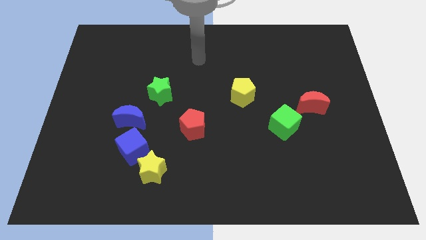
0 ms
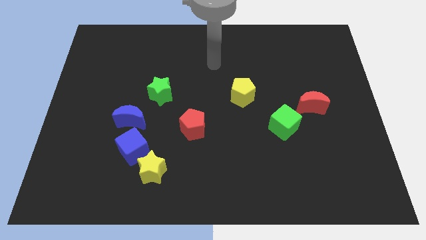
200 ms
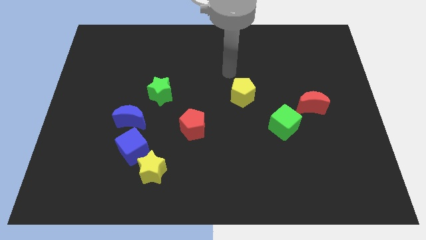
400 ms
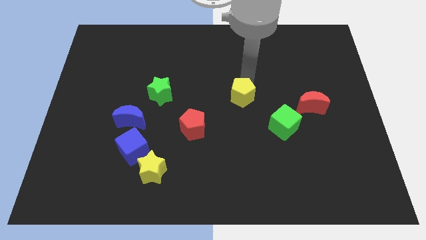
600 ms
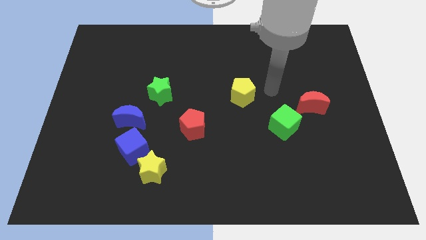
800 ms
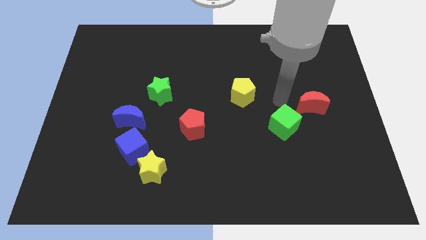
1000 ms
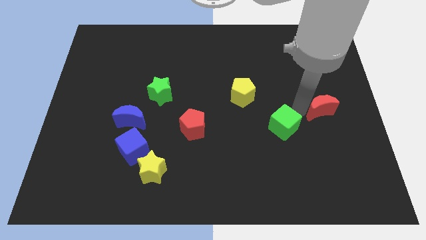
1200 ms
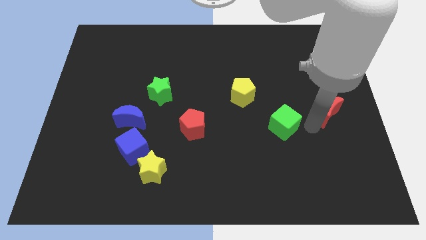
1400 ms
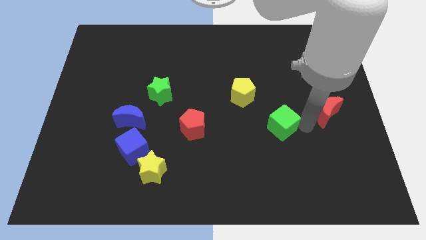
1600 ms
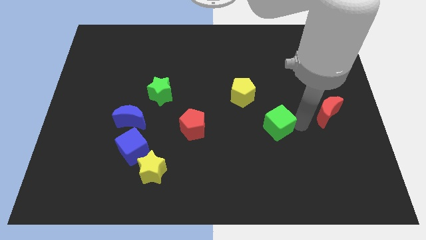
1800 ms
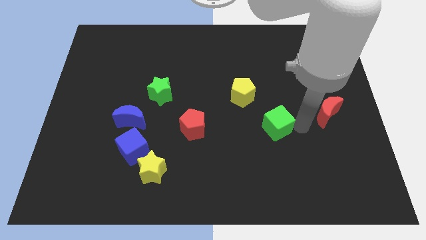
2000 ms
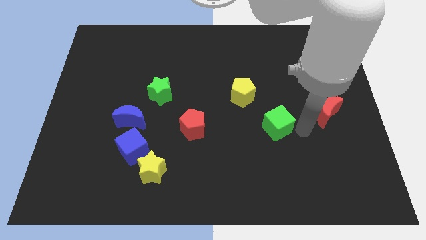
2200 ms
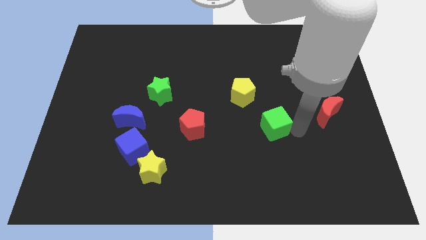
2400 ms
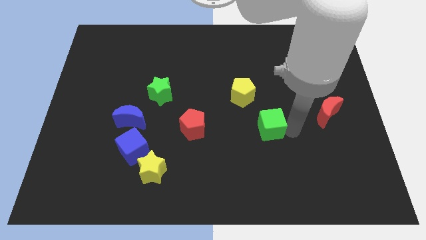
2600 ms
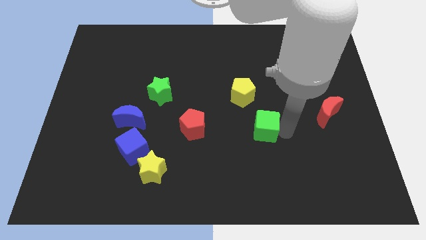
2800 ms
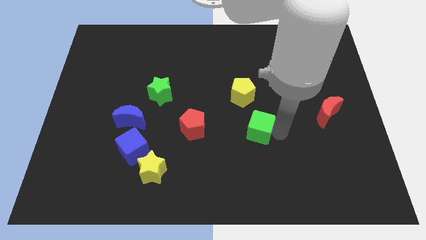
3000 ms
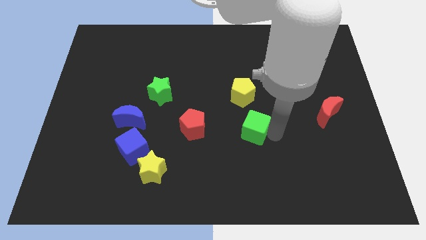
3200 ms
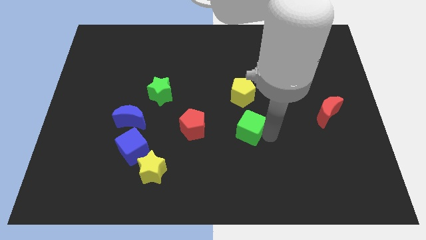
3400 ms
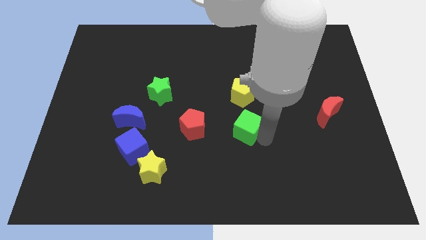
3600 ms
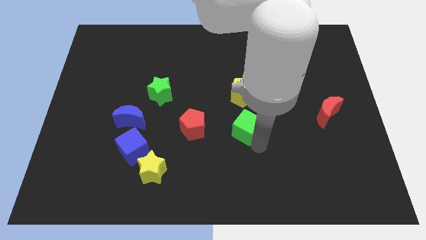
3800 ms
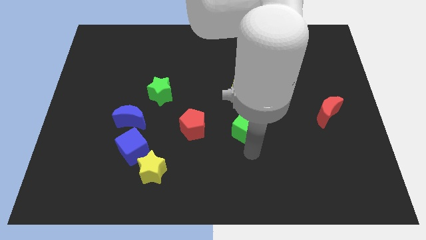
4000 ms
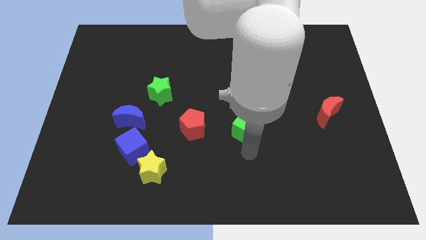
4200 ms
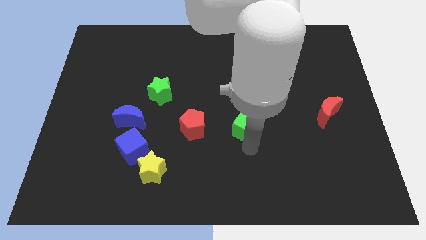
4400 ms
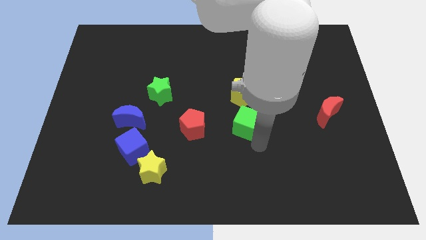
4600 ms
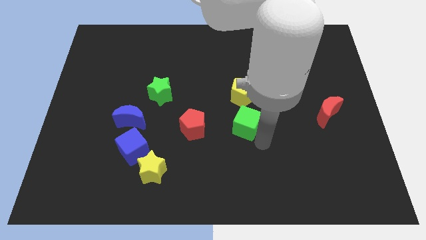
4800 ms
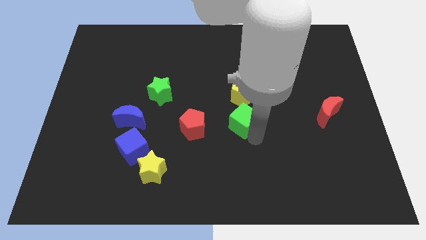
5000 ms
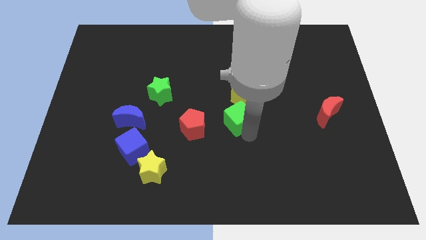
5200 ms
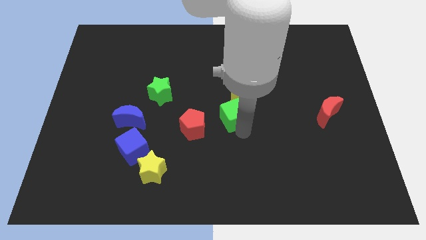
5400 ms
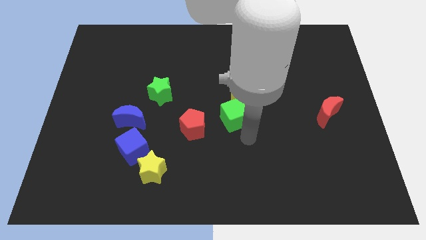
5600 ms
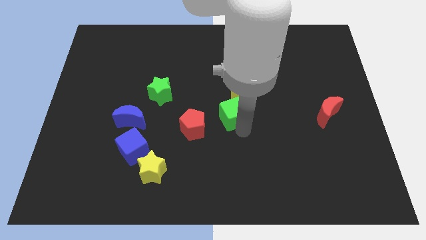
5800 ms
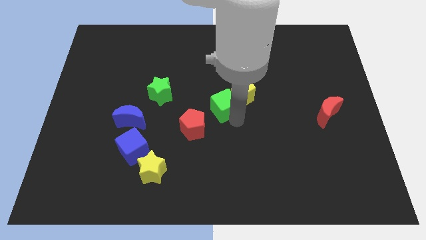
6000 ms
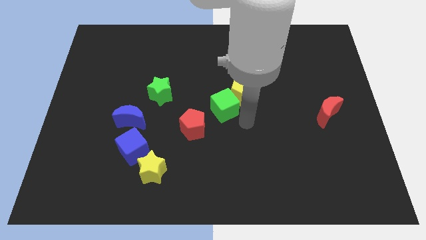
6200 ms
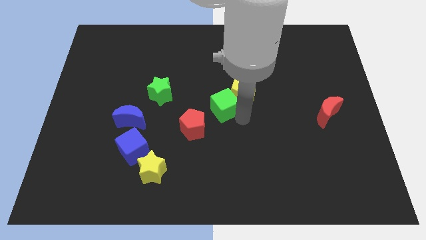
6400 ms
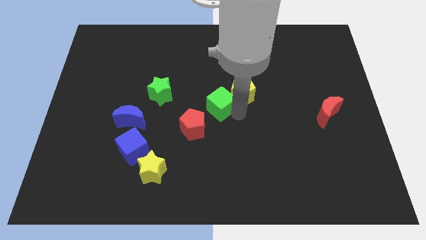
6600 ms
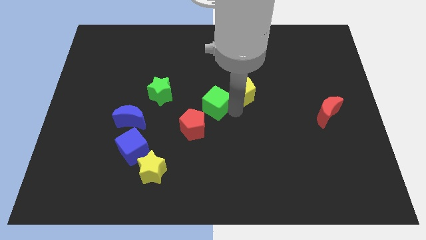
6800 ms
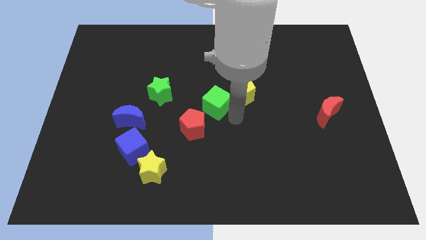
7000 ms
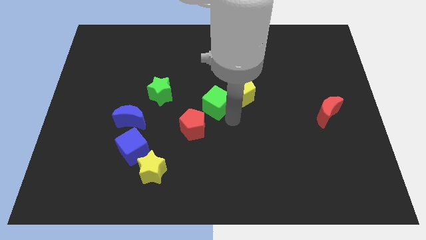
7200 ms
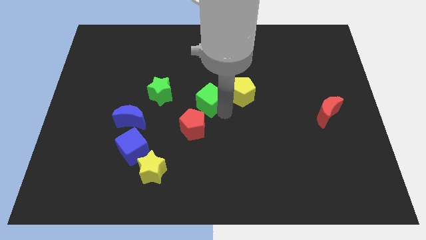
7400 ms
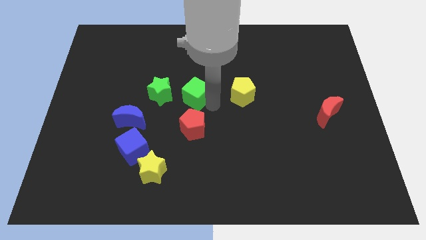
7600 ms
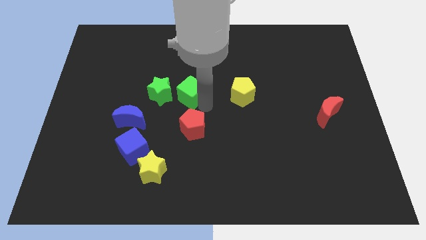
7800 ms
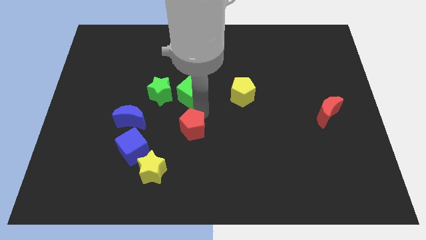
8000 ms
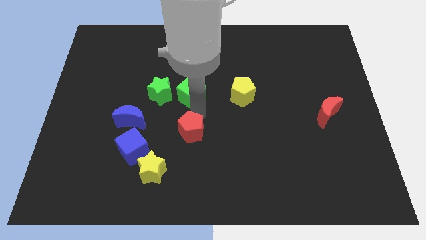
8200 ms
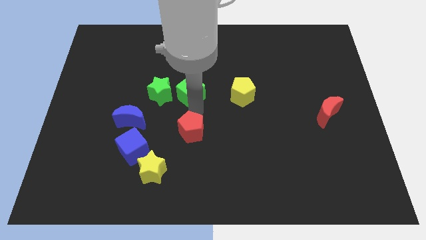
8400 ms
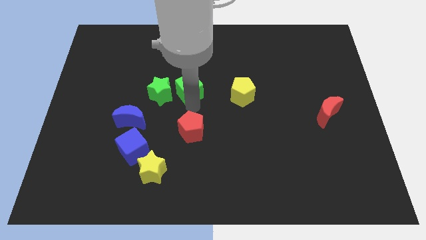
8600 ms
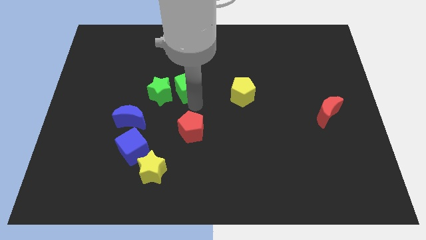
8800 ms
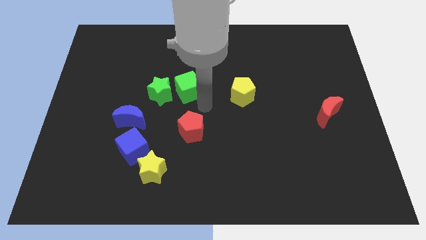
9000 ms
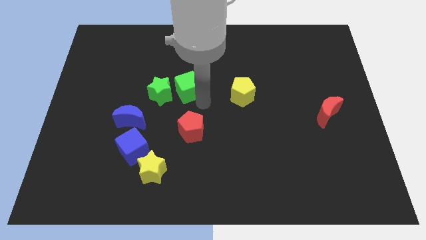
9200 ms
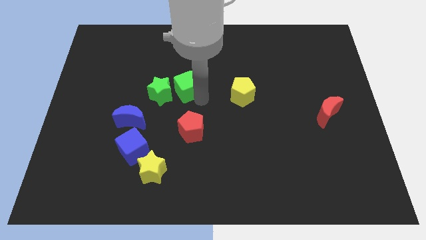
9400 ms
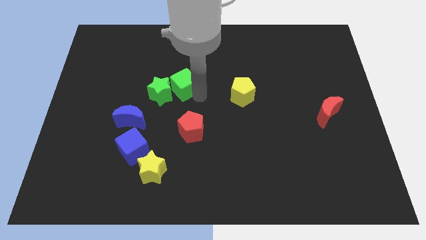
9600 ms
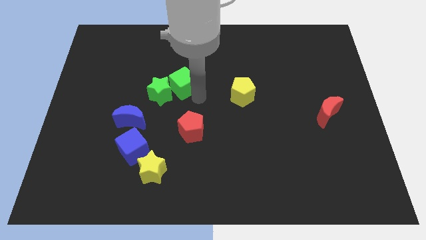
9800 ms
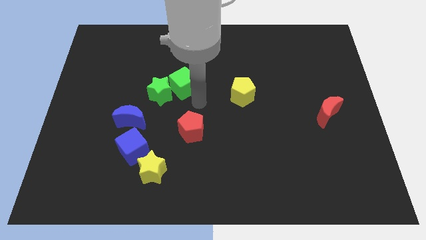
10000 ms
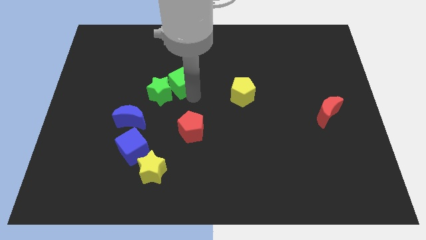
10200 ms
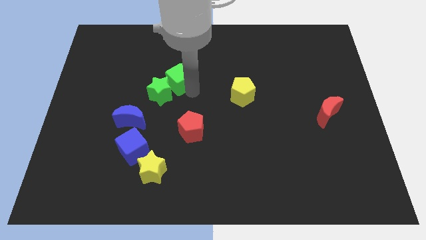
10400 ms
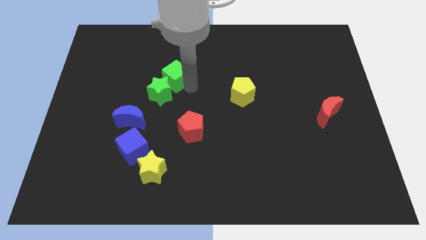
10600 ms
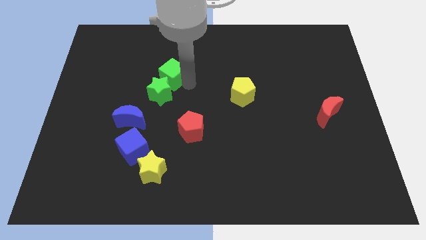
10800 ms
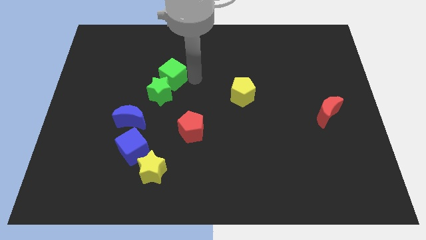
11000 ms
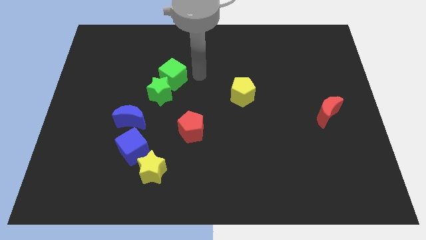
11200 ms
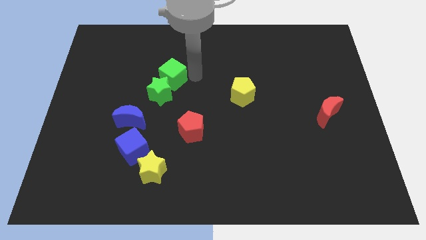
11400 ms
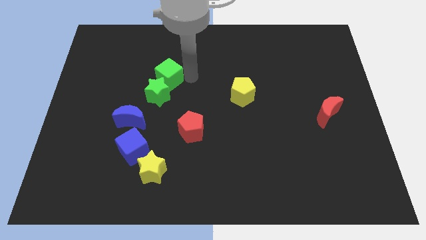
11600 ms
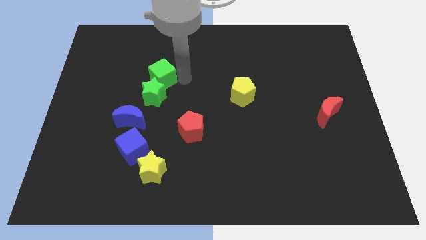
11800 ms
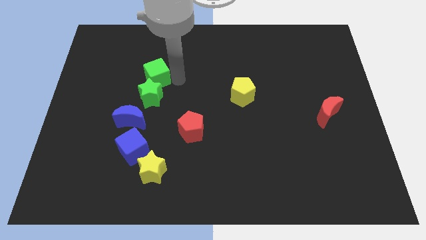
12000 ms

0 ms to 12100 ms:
push the green cube to the top side of the blue moon
